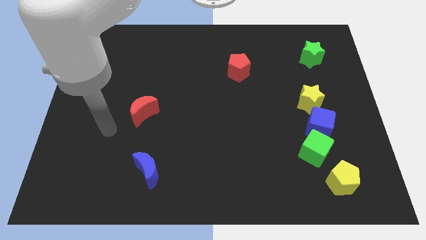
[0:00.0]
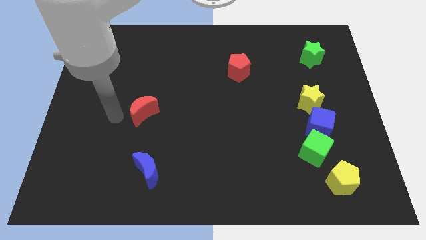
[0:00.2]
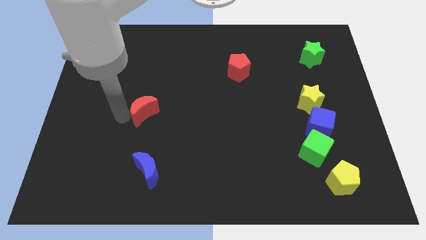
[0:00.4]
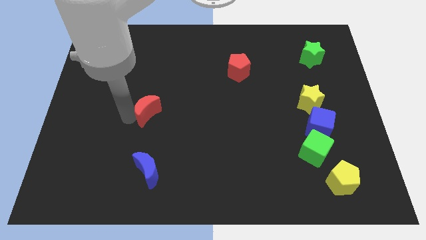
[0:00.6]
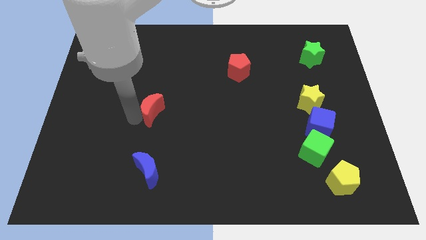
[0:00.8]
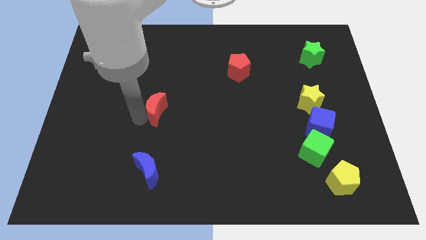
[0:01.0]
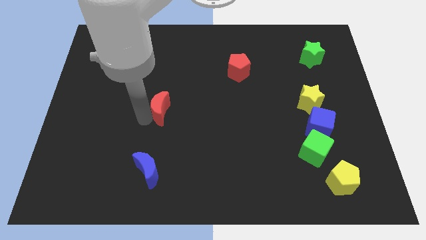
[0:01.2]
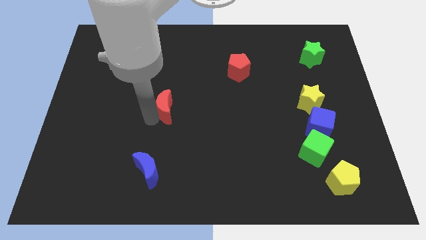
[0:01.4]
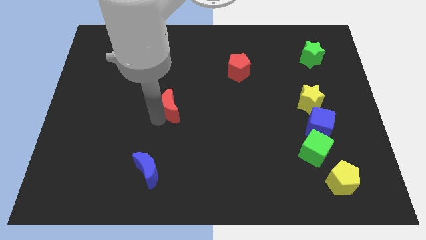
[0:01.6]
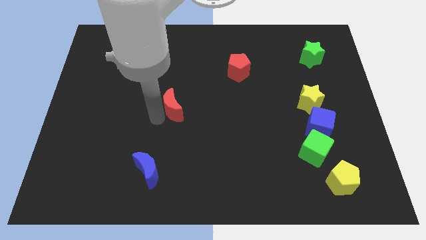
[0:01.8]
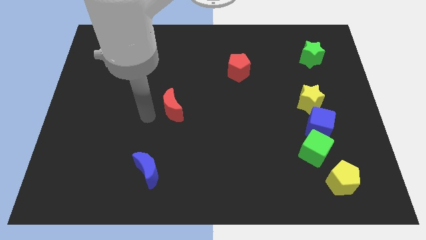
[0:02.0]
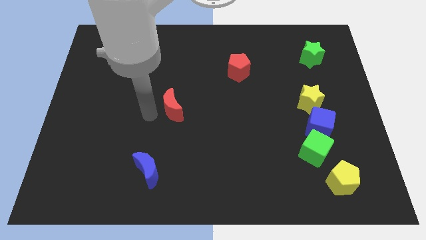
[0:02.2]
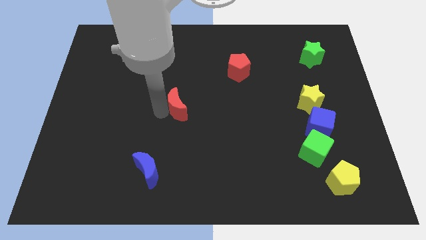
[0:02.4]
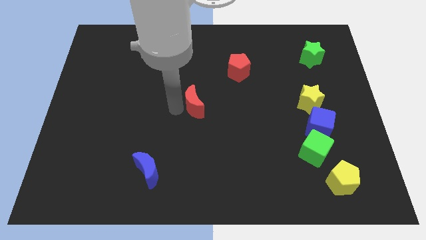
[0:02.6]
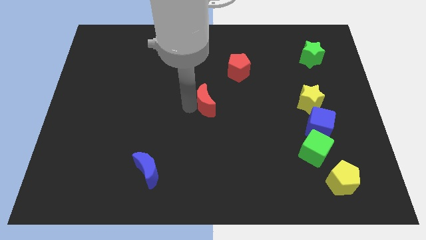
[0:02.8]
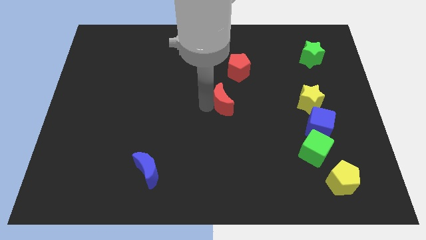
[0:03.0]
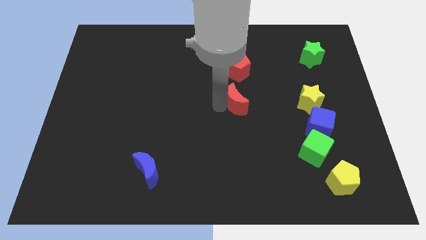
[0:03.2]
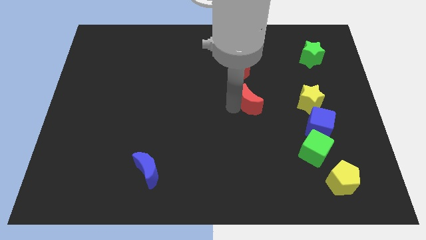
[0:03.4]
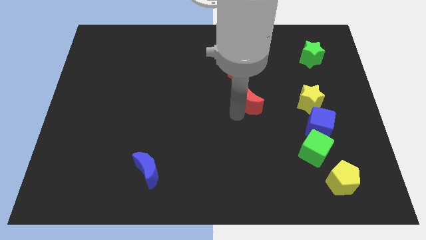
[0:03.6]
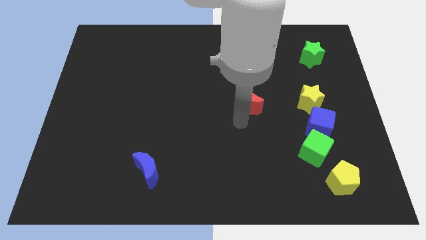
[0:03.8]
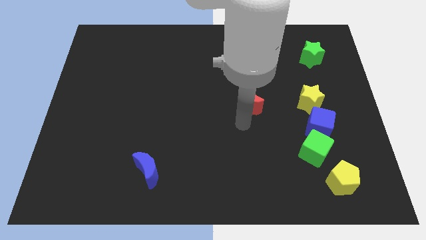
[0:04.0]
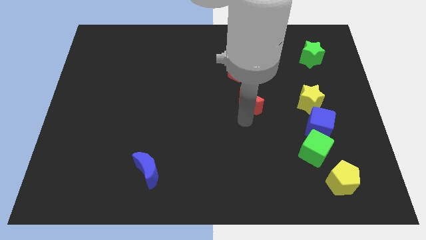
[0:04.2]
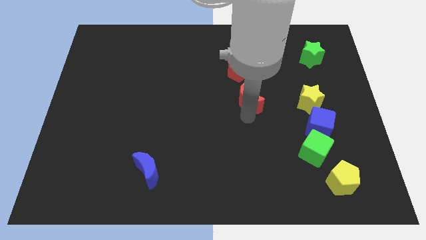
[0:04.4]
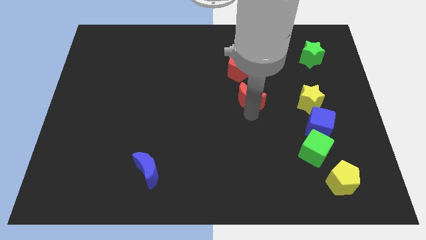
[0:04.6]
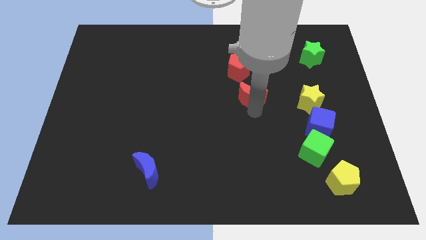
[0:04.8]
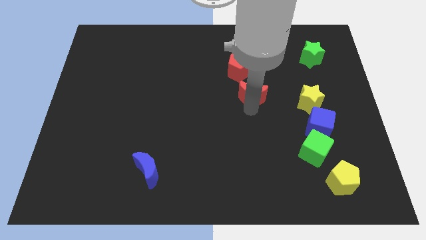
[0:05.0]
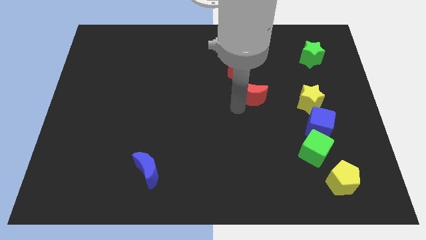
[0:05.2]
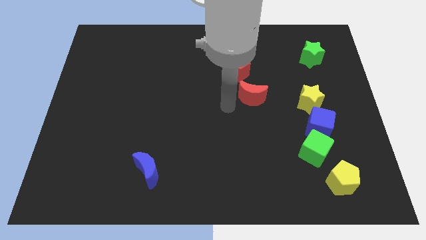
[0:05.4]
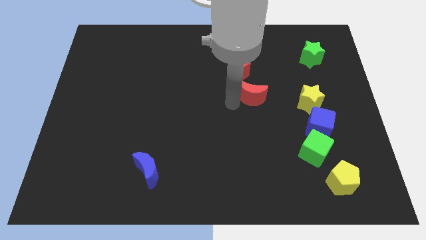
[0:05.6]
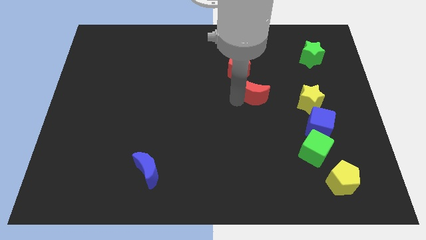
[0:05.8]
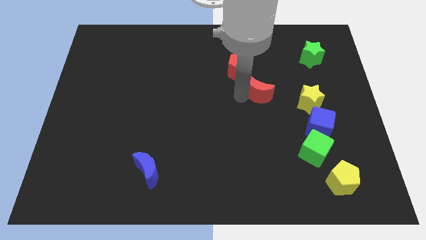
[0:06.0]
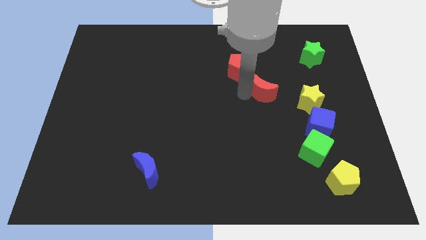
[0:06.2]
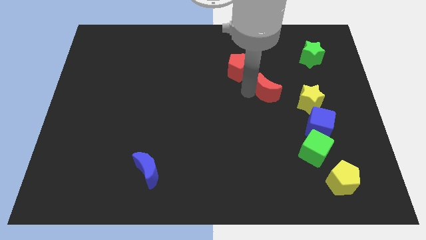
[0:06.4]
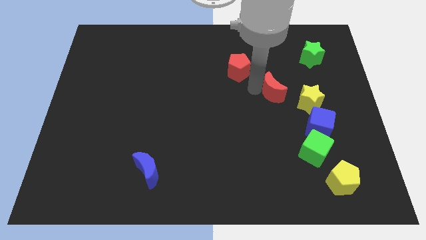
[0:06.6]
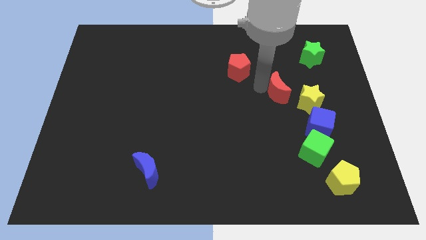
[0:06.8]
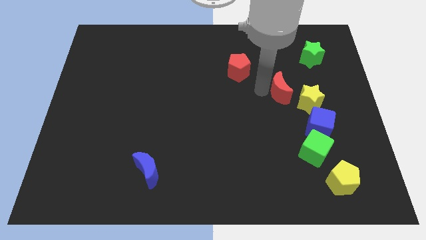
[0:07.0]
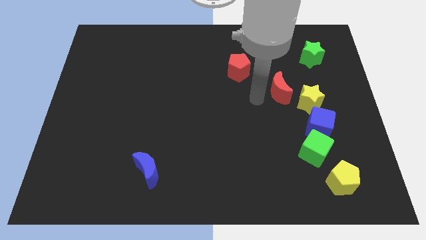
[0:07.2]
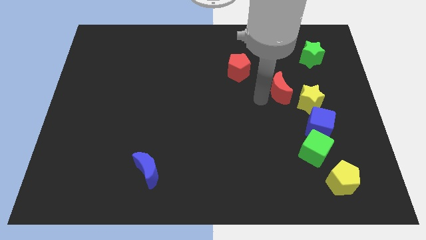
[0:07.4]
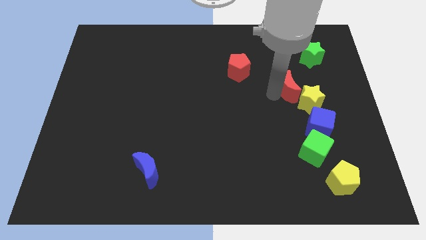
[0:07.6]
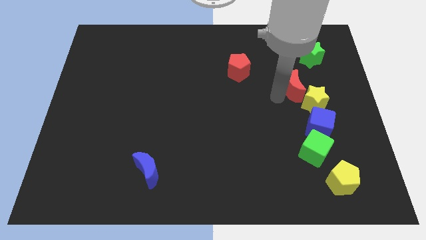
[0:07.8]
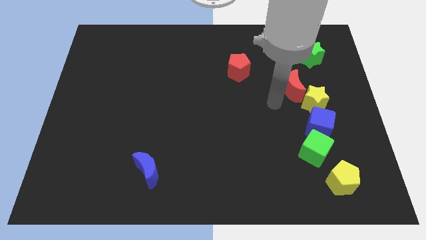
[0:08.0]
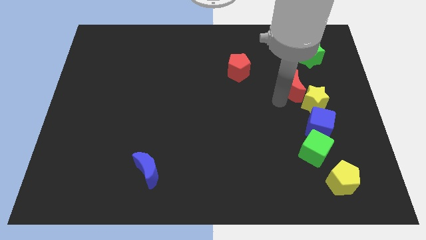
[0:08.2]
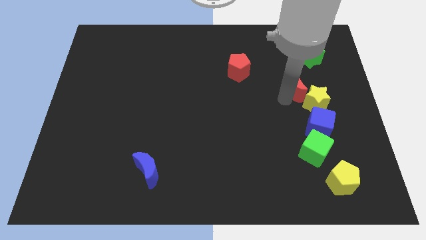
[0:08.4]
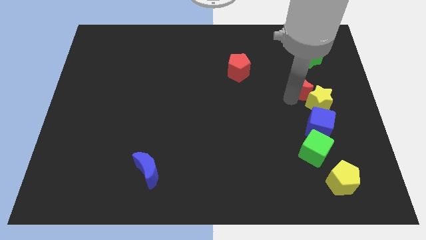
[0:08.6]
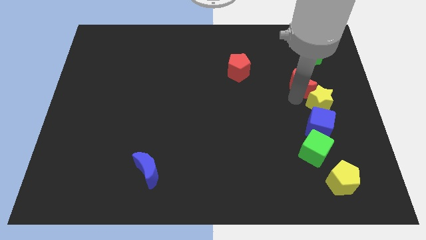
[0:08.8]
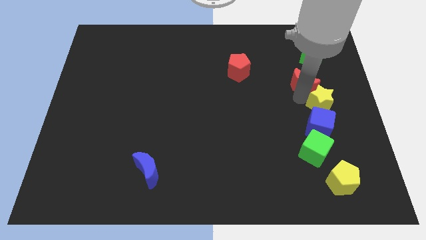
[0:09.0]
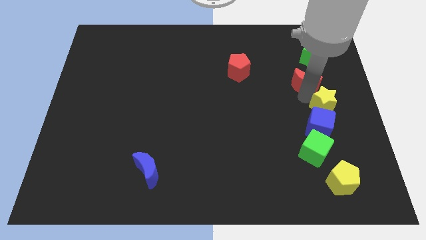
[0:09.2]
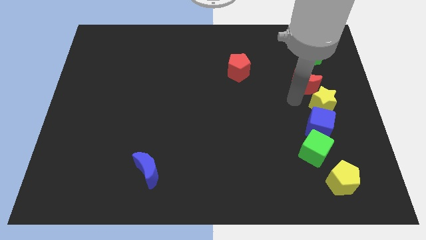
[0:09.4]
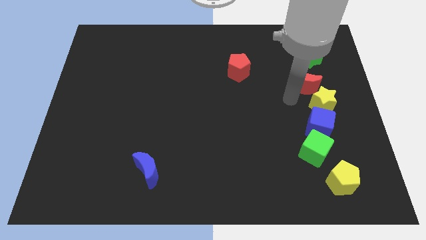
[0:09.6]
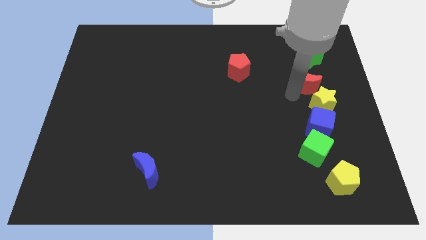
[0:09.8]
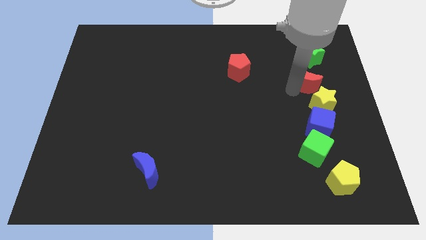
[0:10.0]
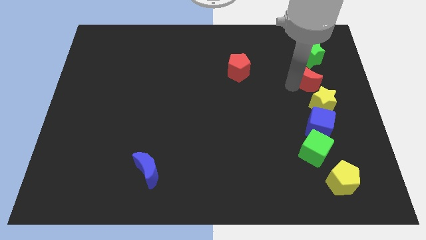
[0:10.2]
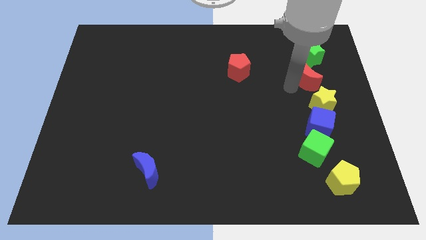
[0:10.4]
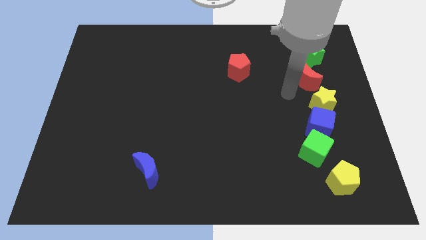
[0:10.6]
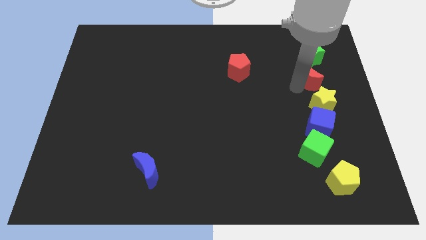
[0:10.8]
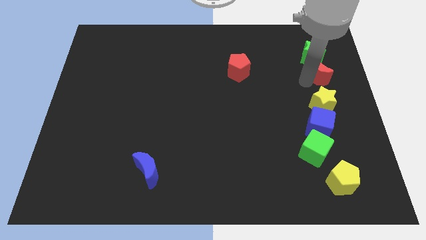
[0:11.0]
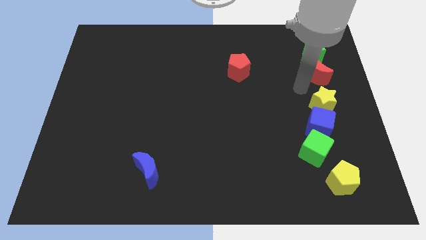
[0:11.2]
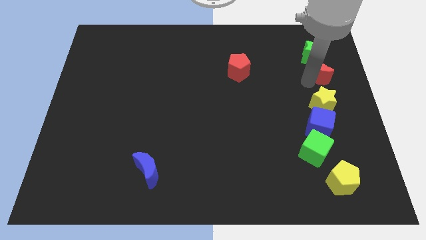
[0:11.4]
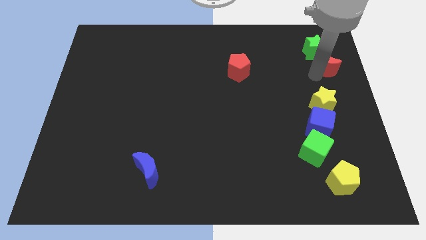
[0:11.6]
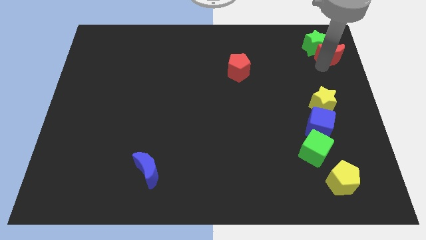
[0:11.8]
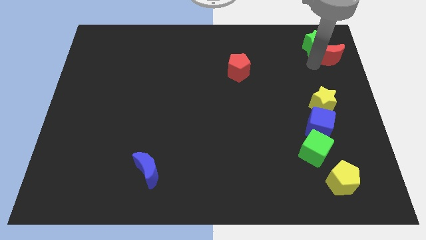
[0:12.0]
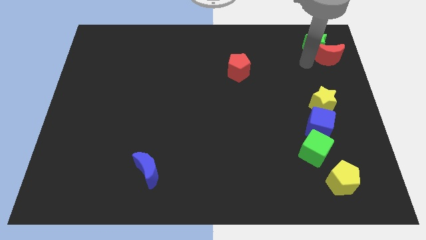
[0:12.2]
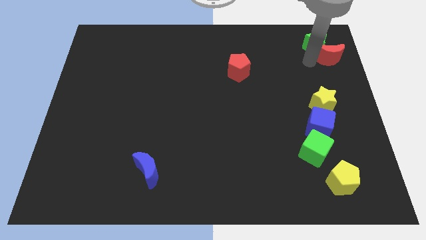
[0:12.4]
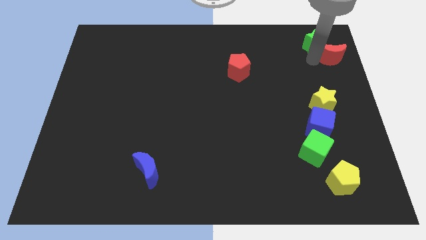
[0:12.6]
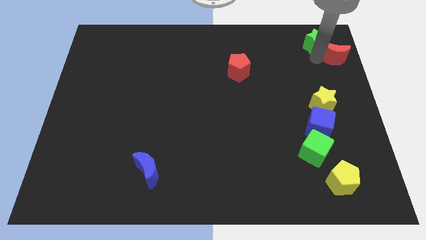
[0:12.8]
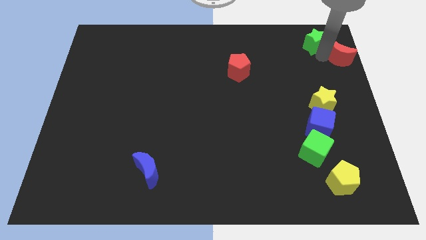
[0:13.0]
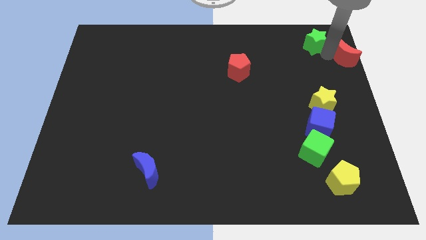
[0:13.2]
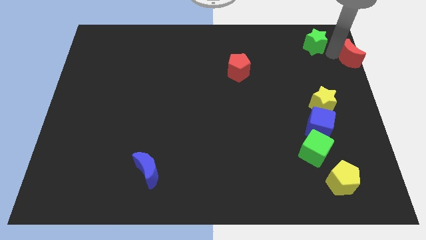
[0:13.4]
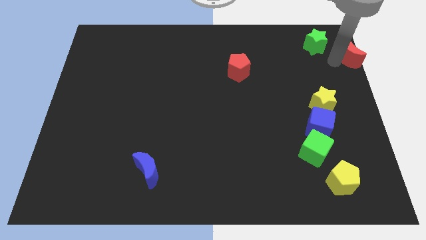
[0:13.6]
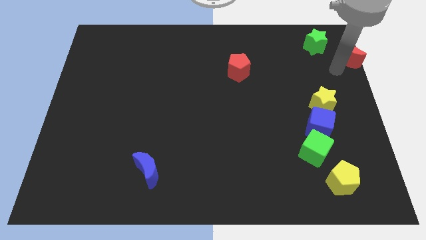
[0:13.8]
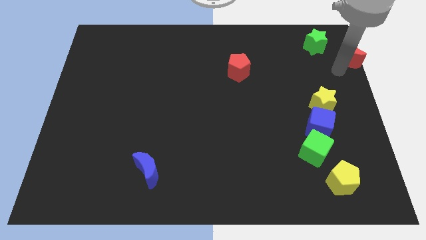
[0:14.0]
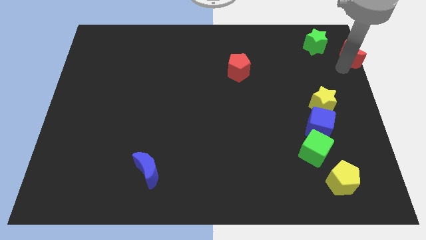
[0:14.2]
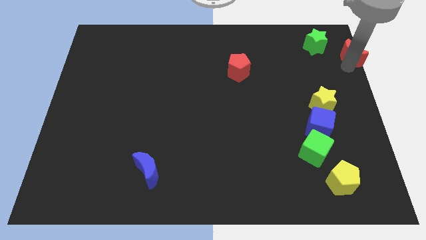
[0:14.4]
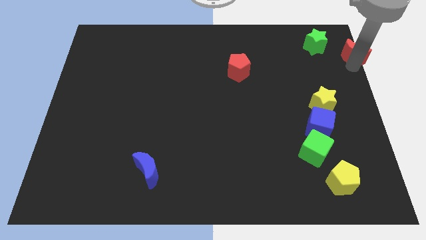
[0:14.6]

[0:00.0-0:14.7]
put the red moon to the upper right corner
